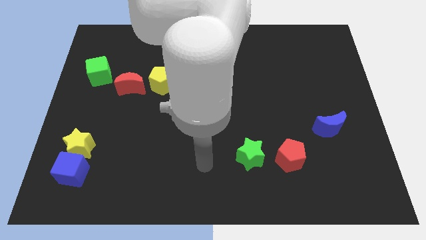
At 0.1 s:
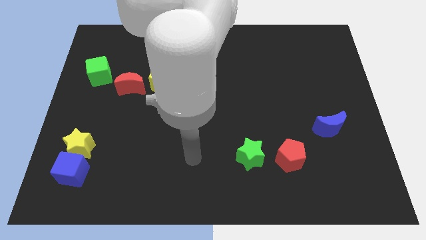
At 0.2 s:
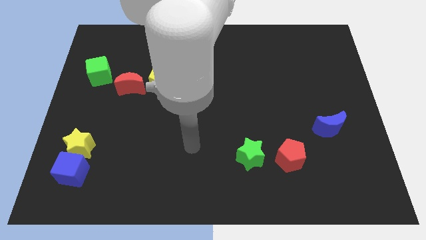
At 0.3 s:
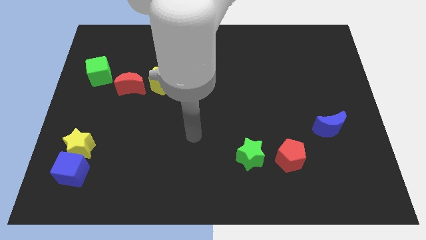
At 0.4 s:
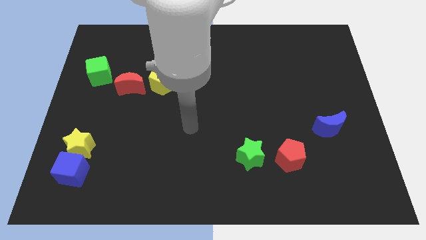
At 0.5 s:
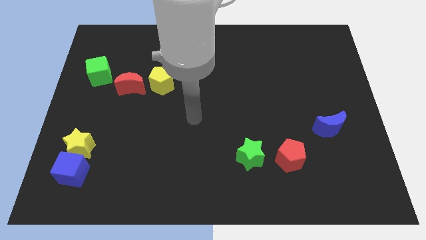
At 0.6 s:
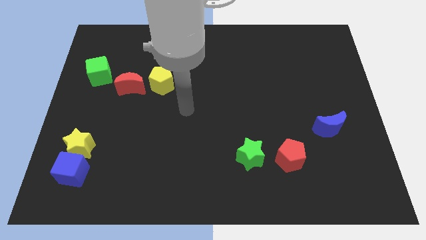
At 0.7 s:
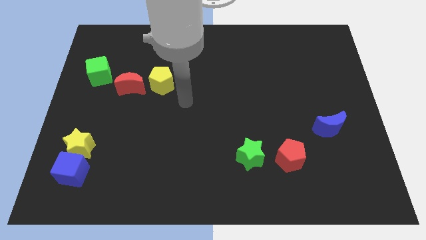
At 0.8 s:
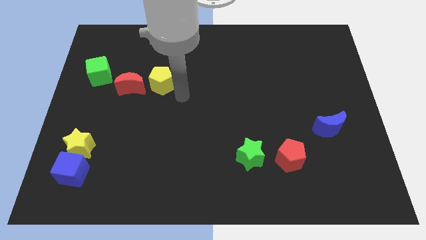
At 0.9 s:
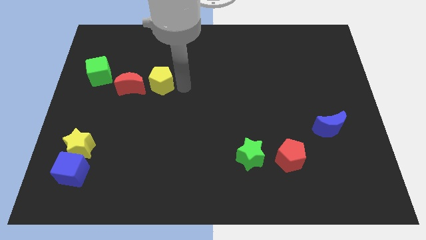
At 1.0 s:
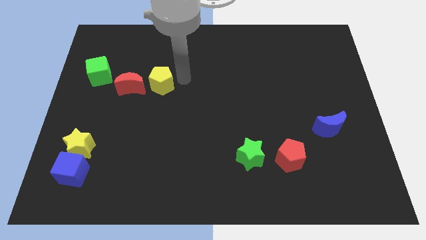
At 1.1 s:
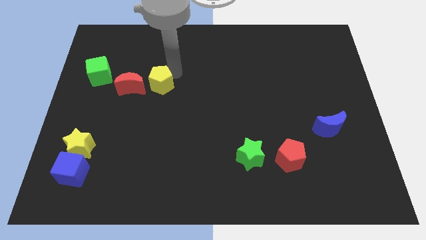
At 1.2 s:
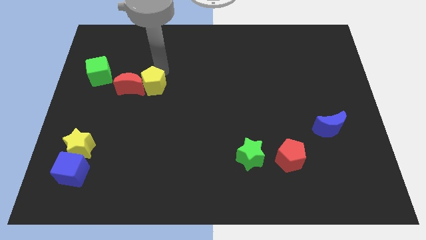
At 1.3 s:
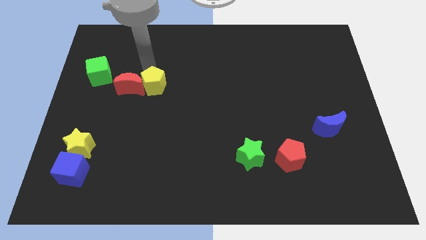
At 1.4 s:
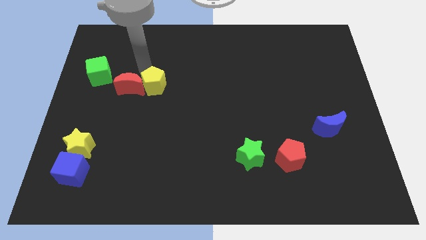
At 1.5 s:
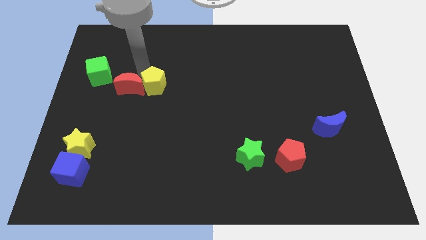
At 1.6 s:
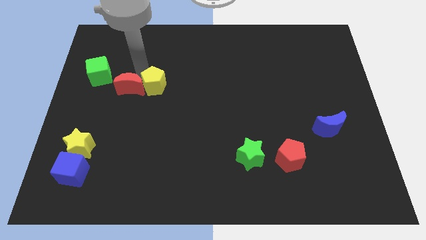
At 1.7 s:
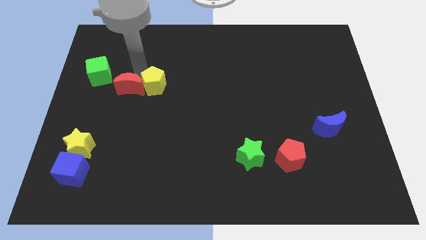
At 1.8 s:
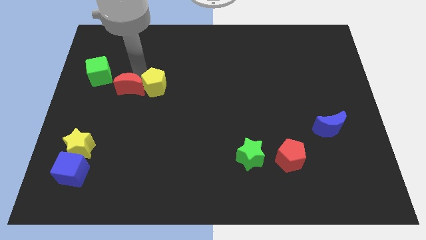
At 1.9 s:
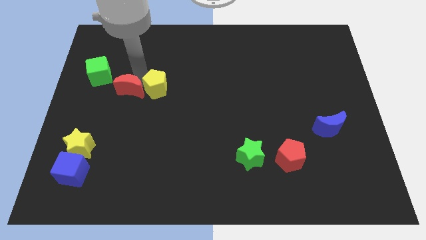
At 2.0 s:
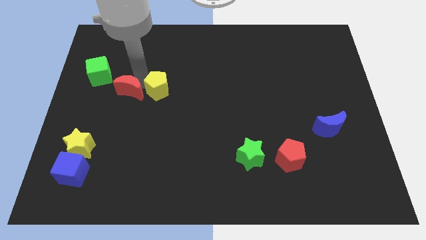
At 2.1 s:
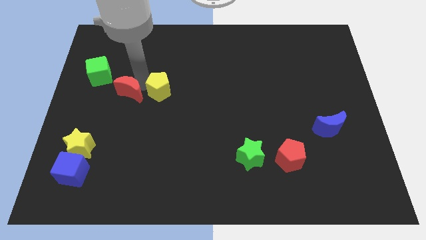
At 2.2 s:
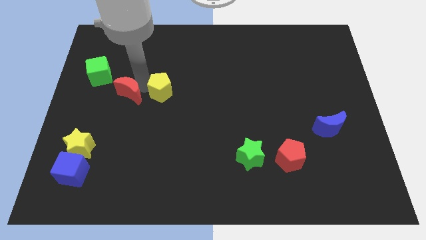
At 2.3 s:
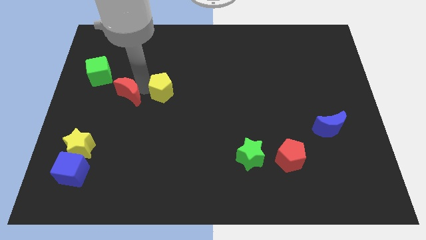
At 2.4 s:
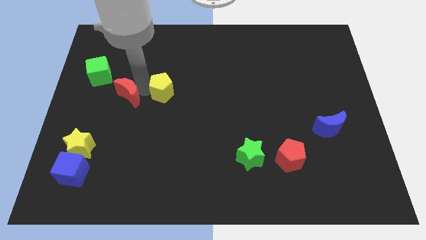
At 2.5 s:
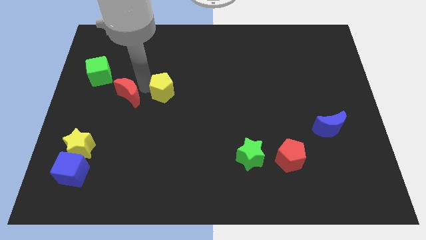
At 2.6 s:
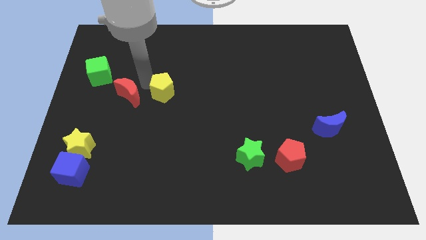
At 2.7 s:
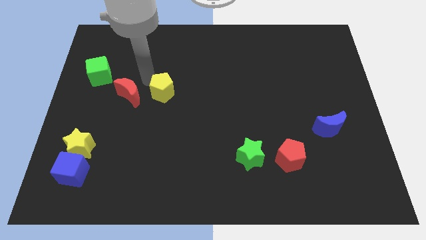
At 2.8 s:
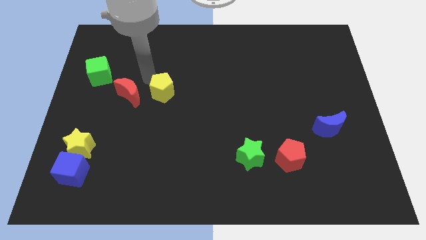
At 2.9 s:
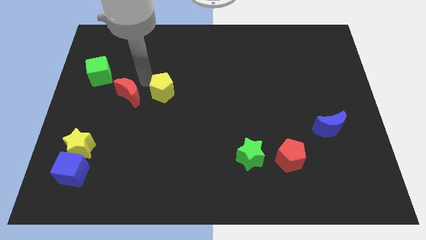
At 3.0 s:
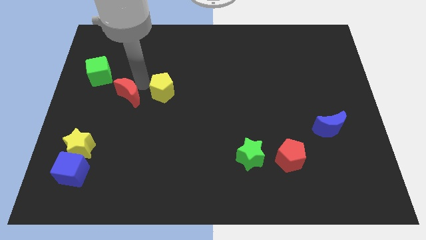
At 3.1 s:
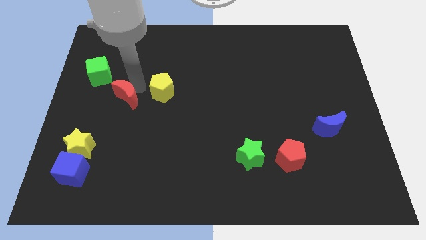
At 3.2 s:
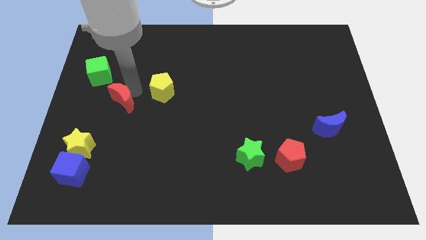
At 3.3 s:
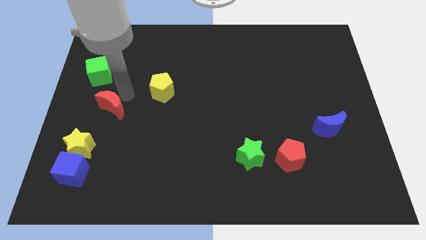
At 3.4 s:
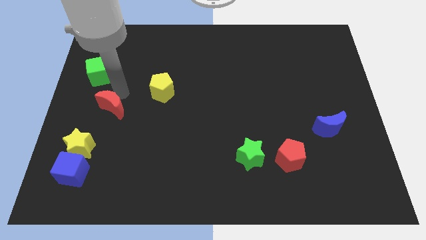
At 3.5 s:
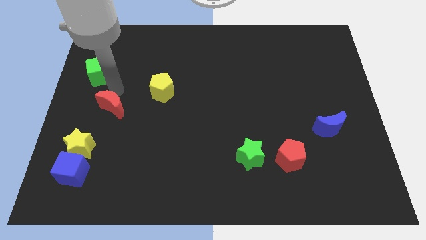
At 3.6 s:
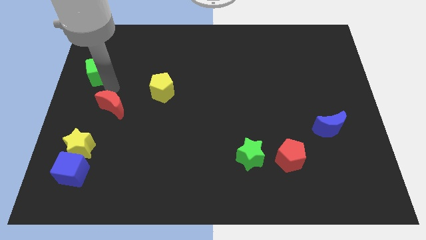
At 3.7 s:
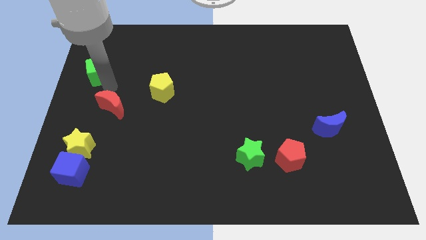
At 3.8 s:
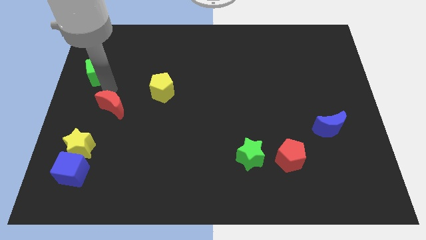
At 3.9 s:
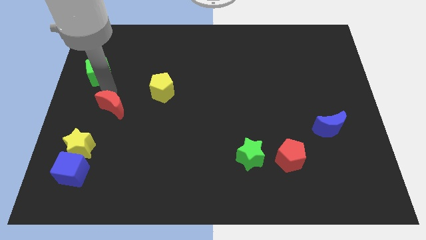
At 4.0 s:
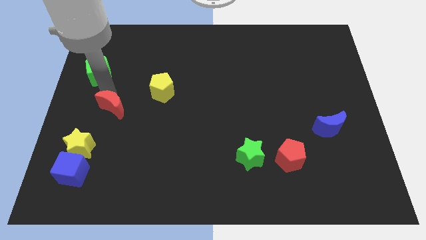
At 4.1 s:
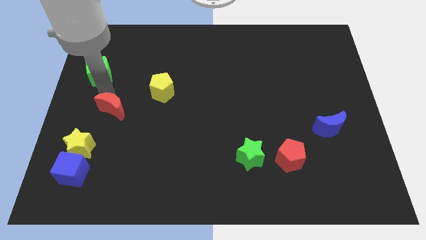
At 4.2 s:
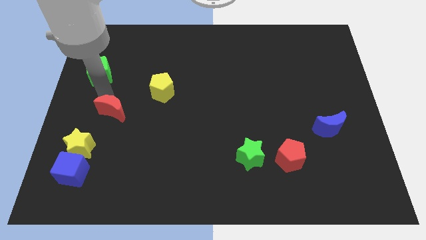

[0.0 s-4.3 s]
slide the red moon somewhat down

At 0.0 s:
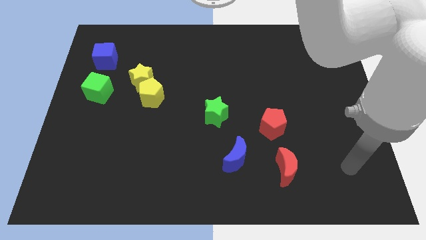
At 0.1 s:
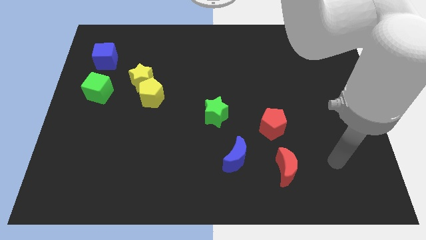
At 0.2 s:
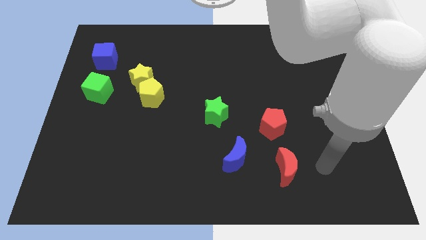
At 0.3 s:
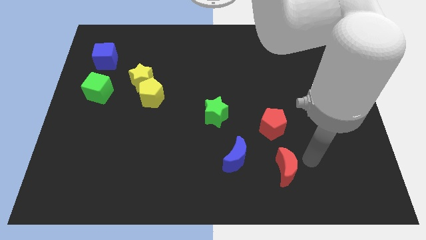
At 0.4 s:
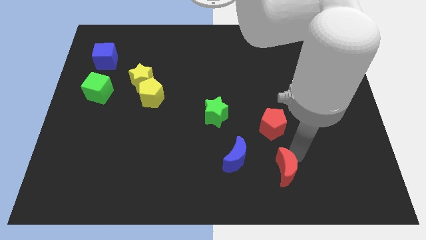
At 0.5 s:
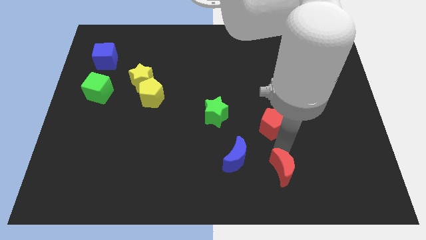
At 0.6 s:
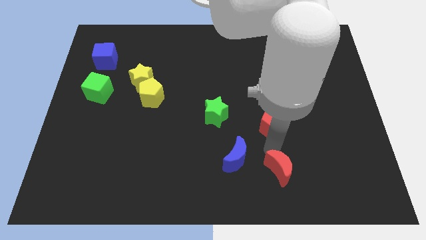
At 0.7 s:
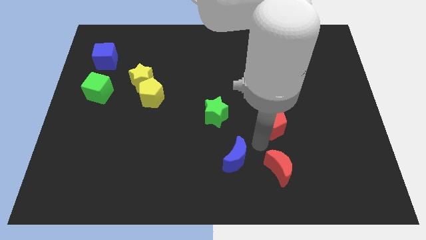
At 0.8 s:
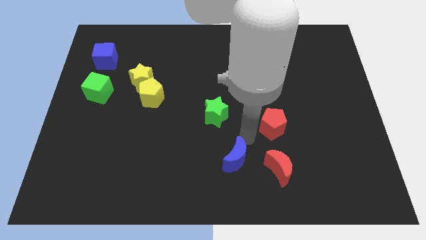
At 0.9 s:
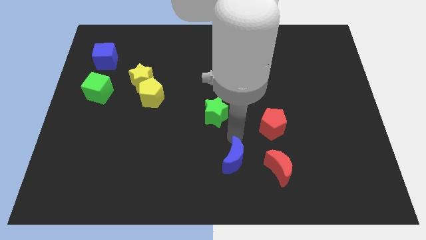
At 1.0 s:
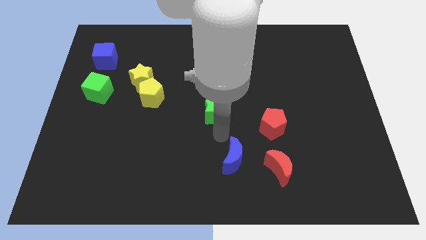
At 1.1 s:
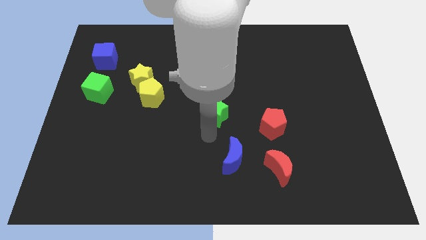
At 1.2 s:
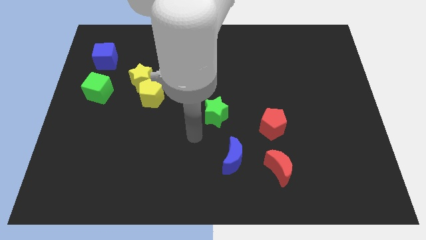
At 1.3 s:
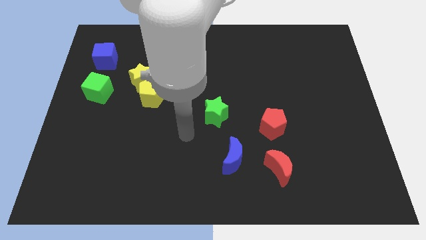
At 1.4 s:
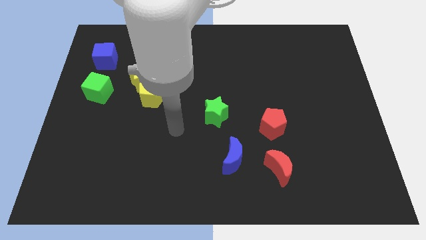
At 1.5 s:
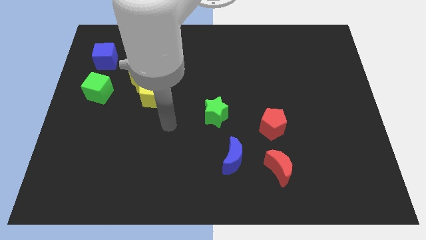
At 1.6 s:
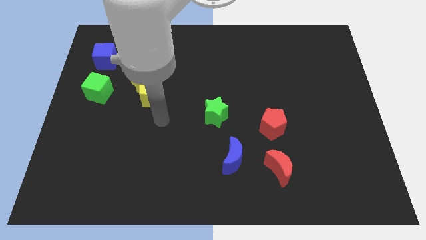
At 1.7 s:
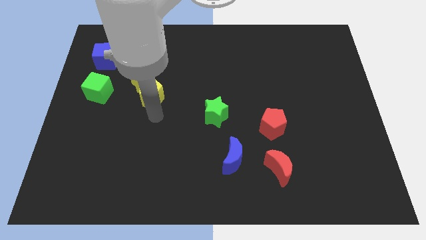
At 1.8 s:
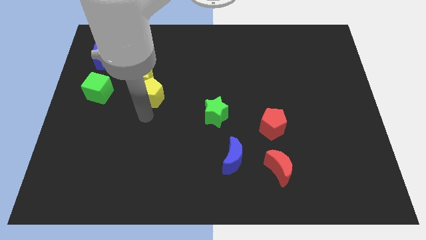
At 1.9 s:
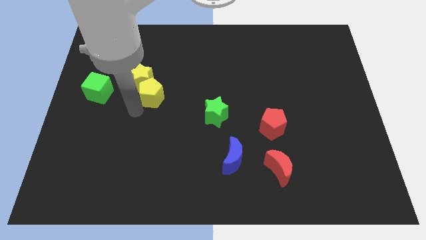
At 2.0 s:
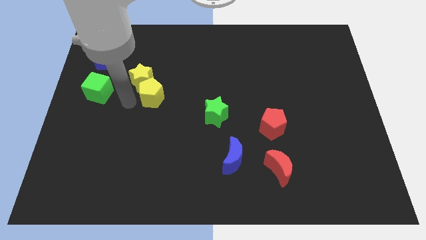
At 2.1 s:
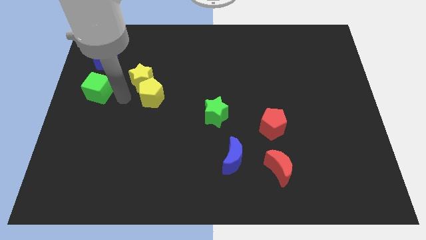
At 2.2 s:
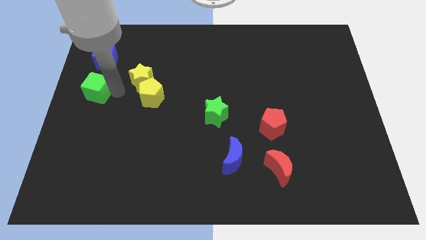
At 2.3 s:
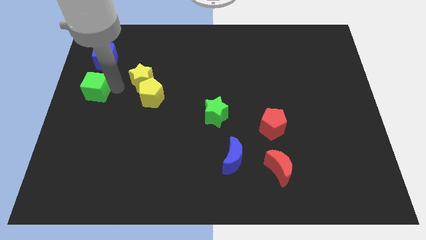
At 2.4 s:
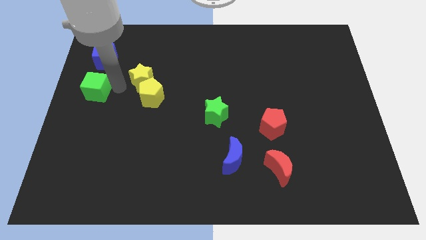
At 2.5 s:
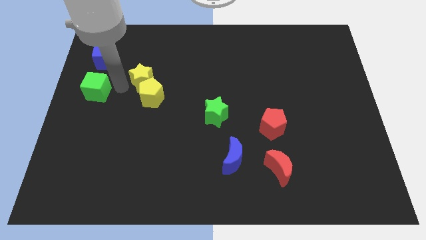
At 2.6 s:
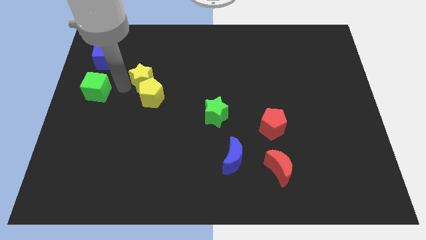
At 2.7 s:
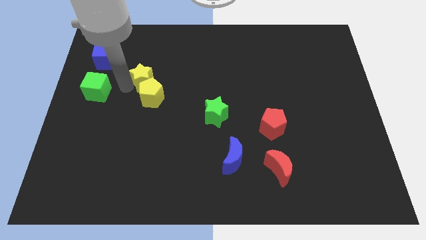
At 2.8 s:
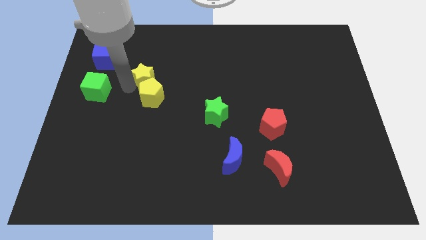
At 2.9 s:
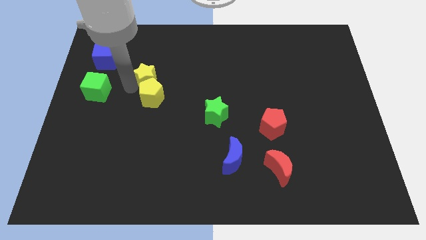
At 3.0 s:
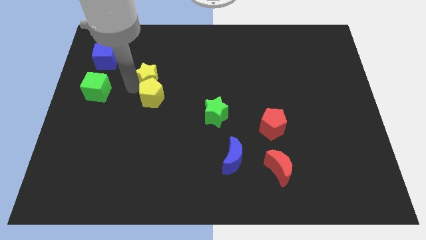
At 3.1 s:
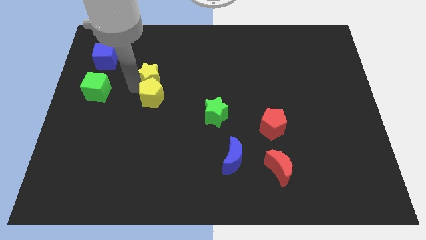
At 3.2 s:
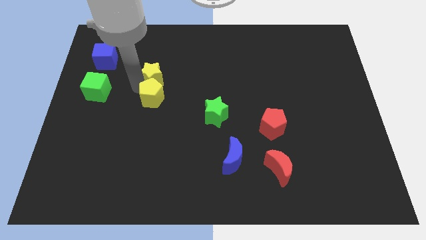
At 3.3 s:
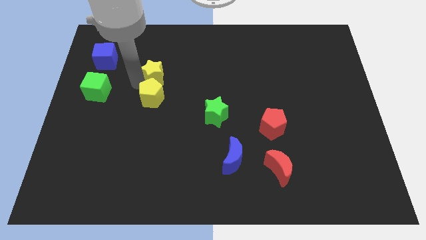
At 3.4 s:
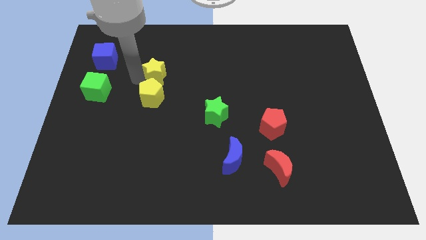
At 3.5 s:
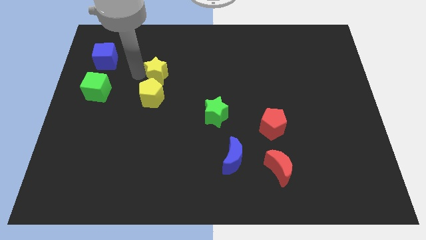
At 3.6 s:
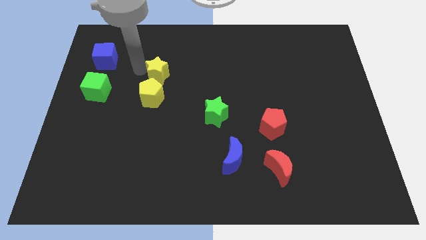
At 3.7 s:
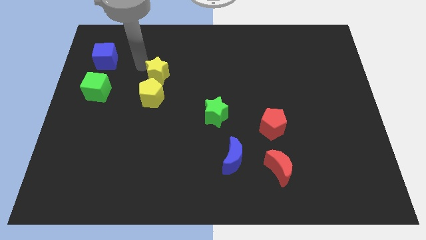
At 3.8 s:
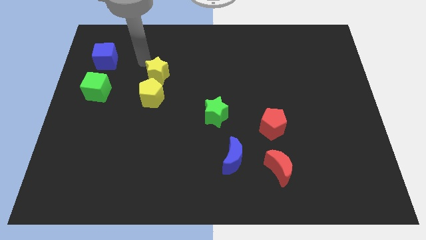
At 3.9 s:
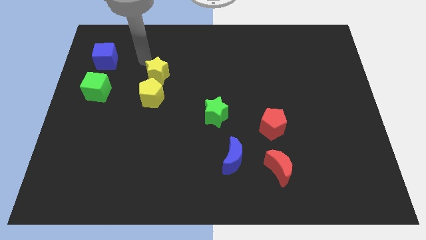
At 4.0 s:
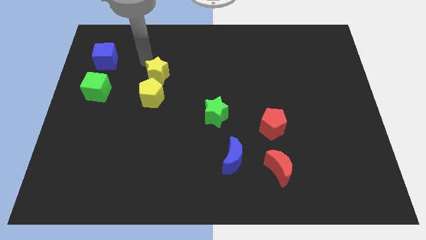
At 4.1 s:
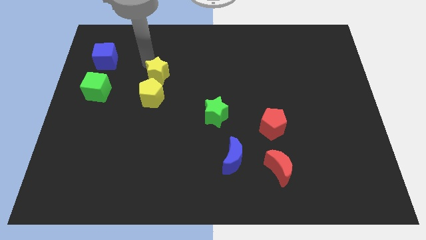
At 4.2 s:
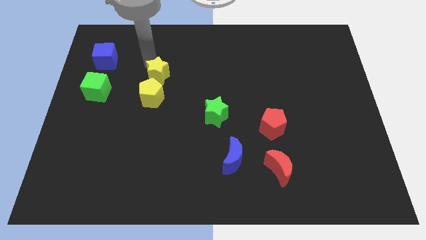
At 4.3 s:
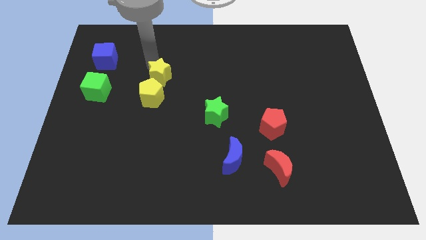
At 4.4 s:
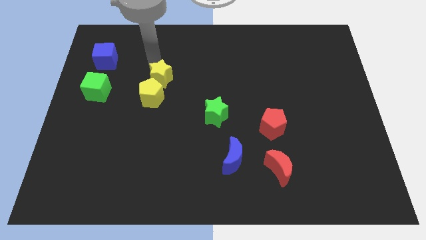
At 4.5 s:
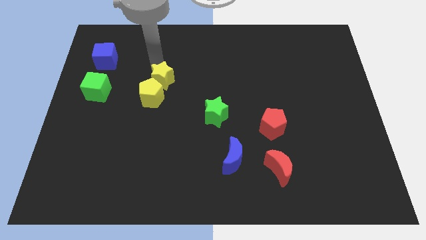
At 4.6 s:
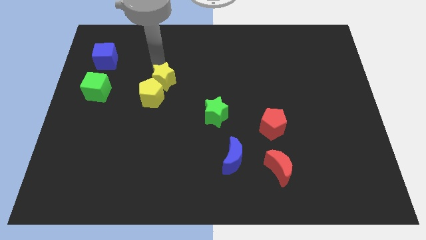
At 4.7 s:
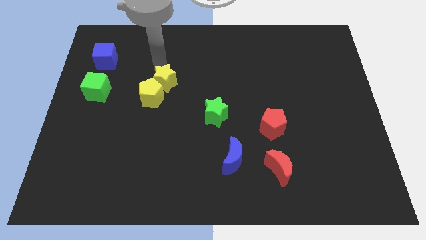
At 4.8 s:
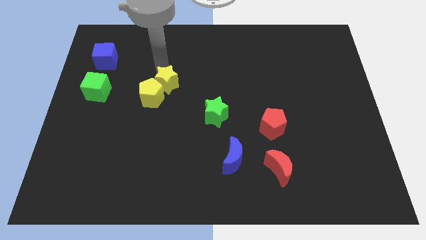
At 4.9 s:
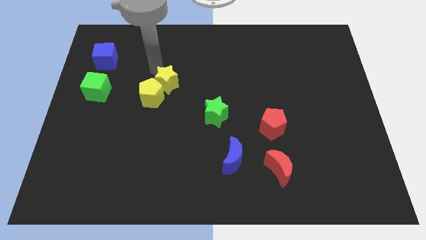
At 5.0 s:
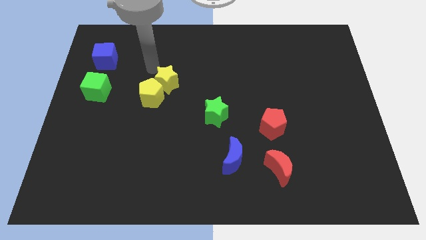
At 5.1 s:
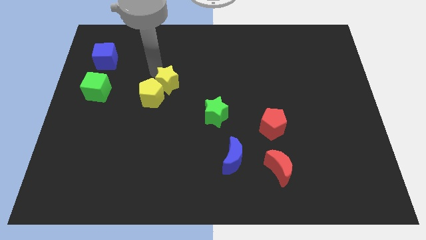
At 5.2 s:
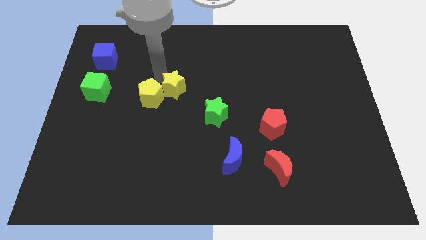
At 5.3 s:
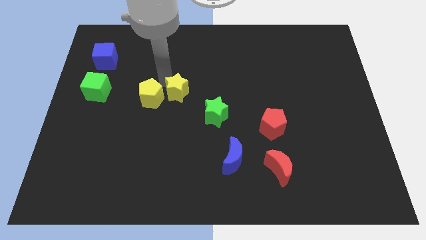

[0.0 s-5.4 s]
slightly move the yellow star down and to the right diagonally
